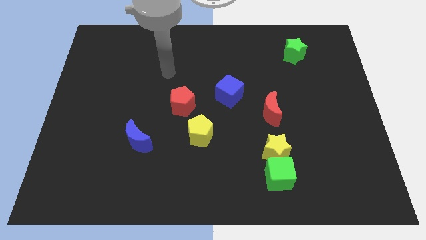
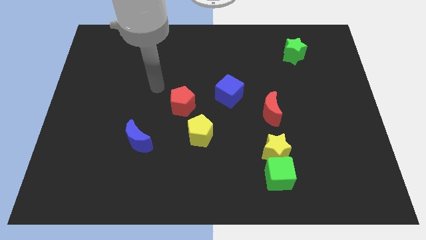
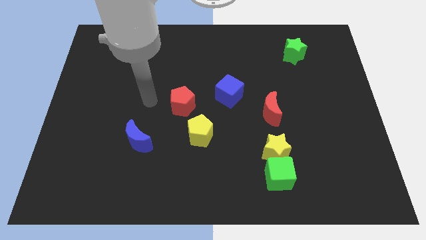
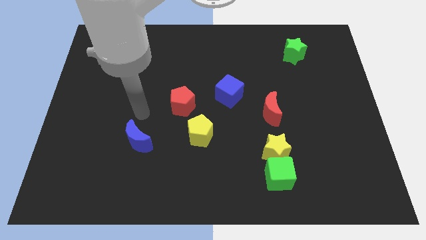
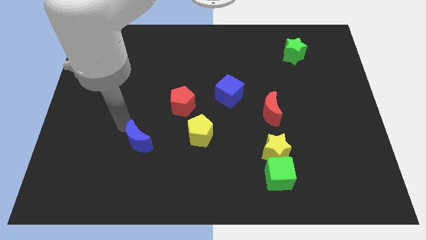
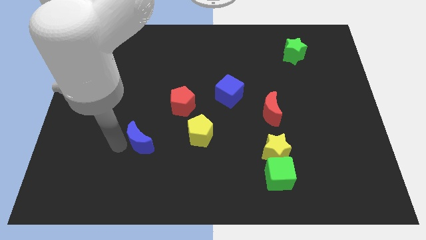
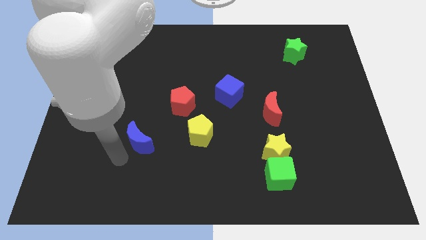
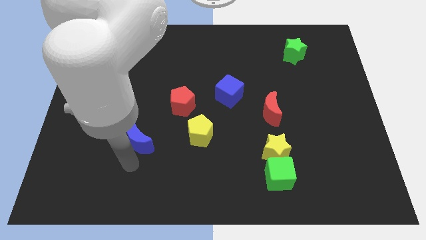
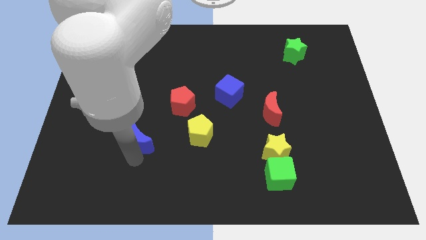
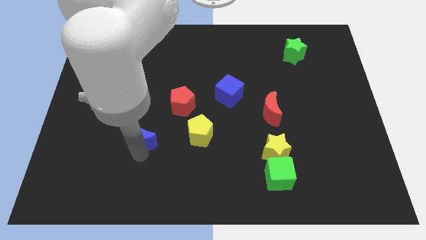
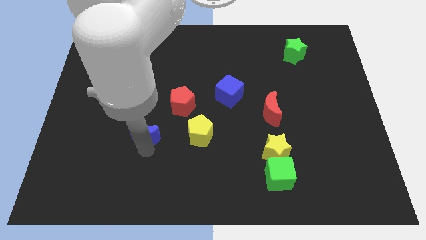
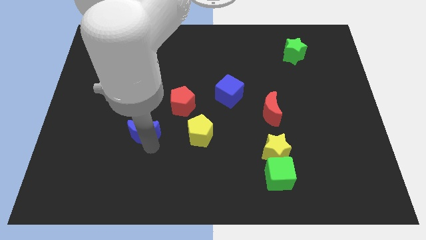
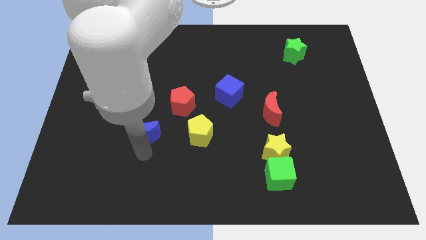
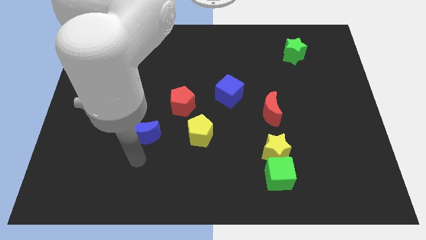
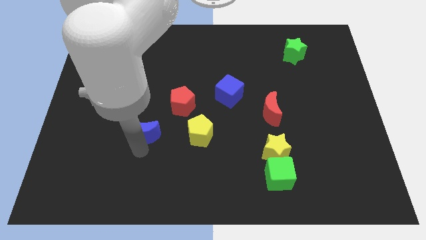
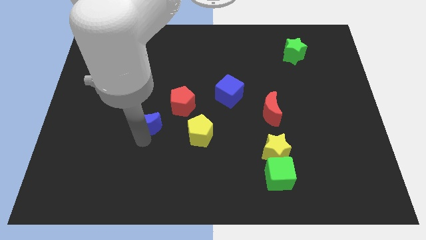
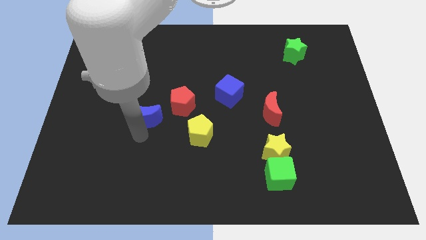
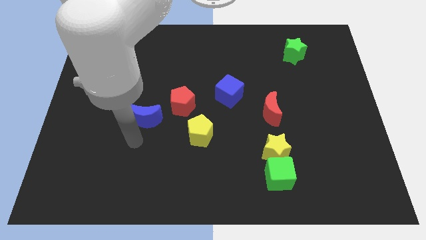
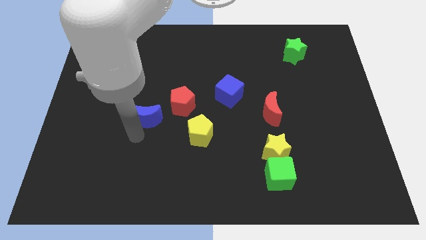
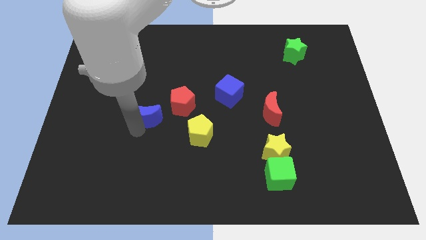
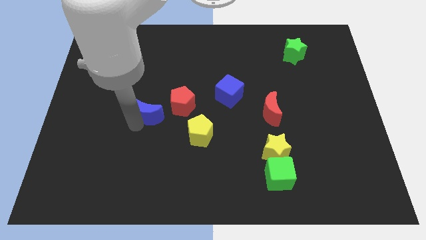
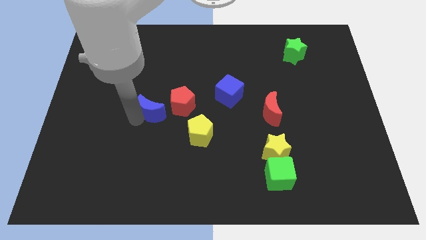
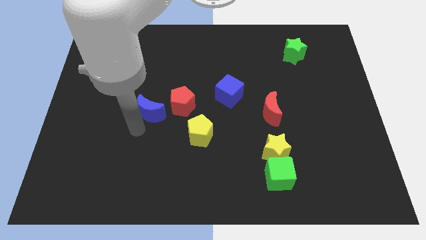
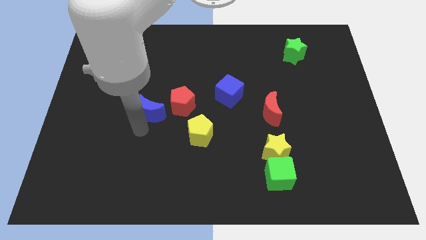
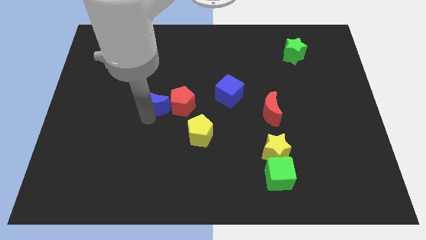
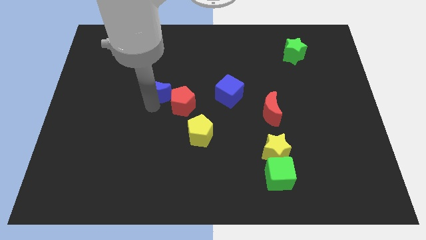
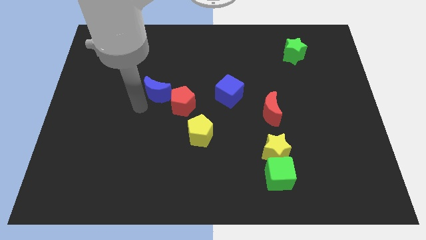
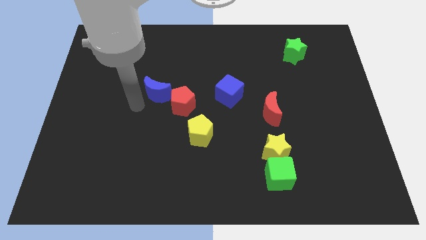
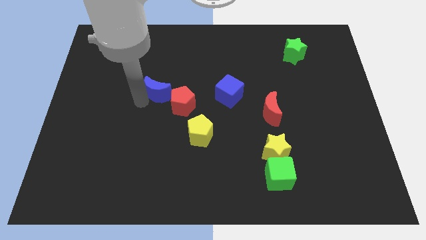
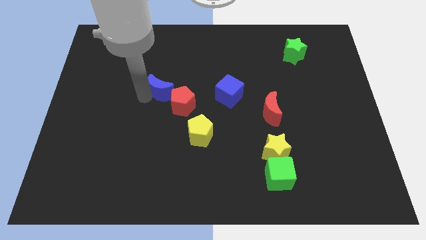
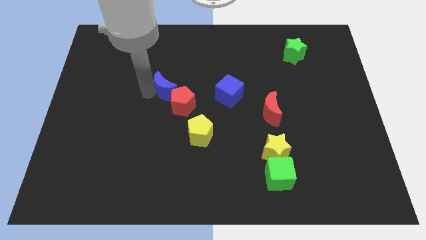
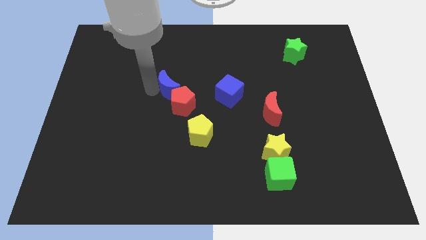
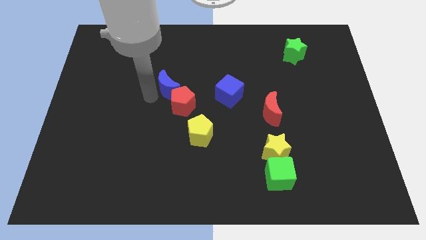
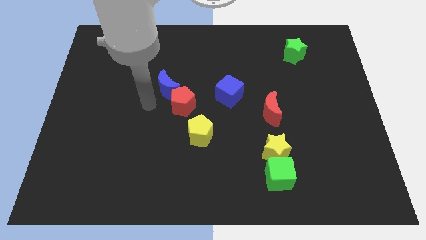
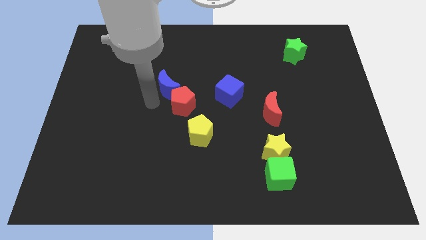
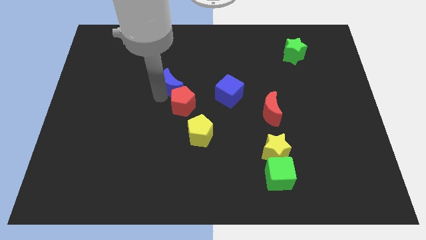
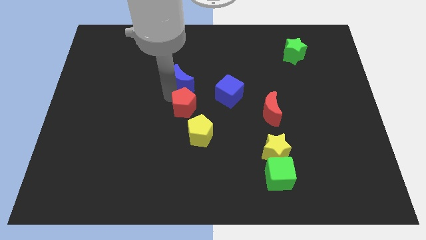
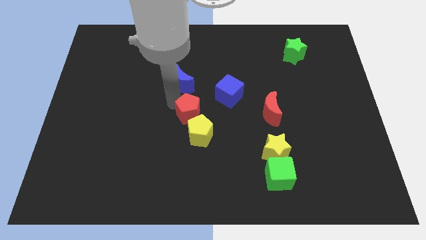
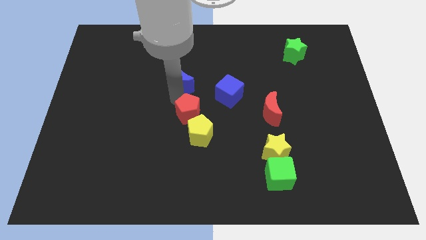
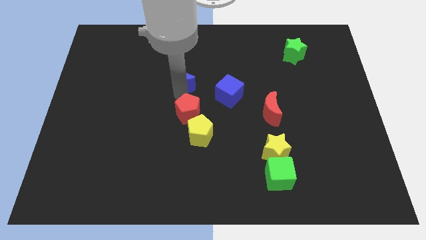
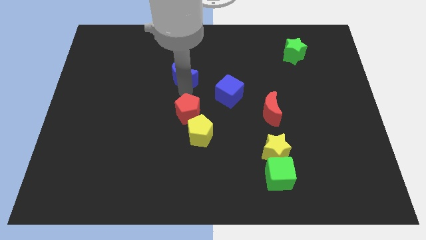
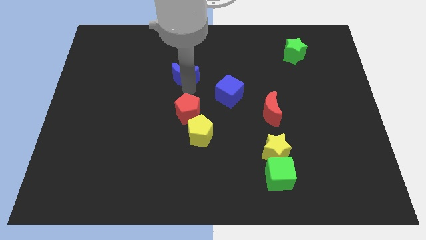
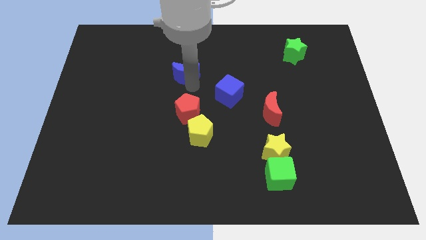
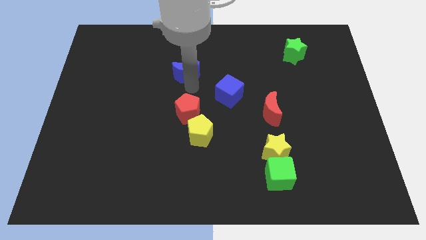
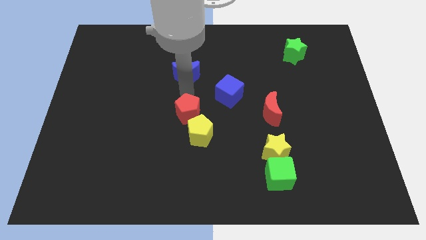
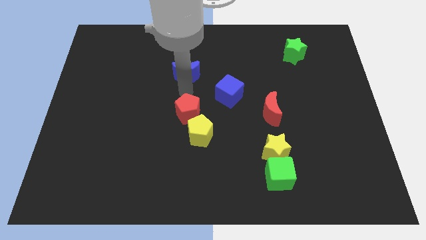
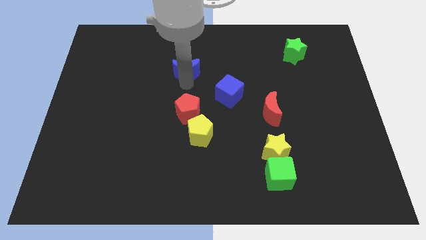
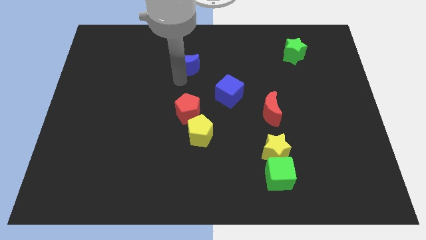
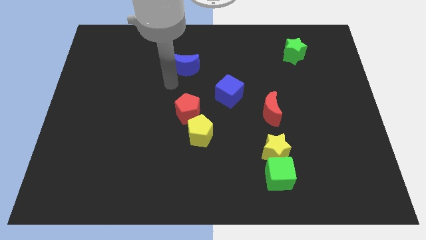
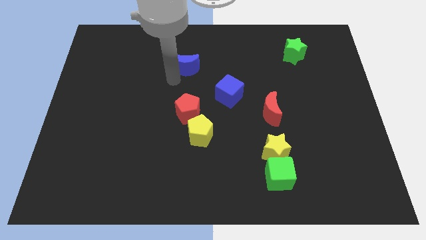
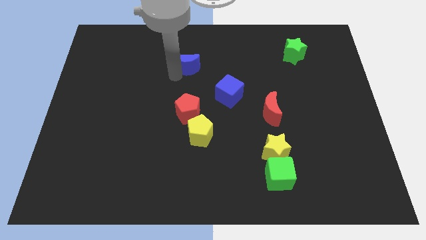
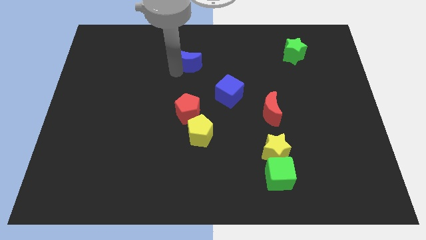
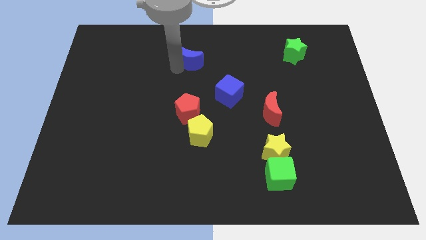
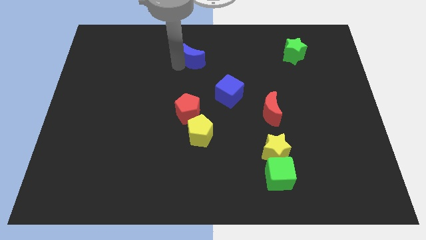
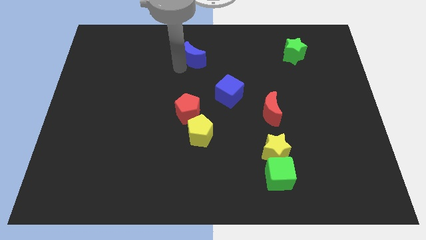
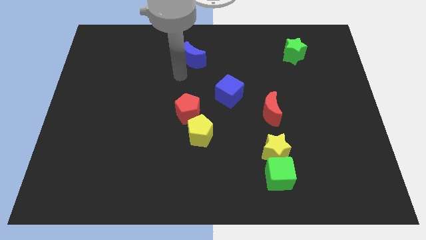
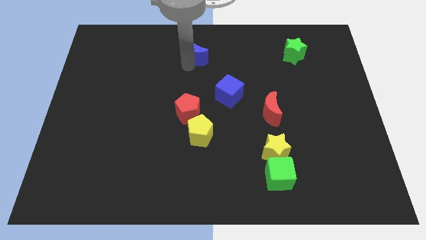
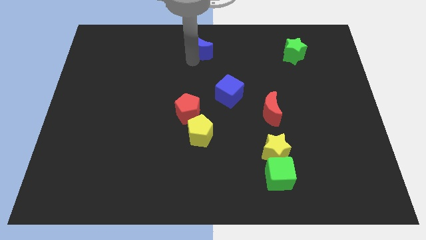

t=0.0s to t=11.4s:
put the blue moon to the top side

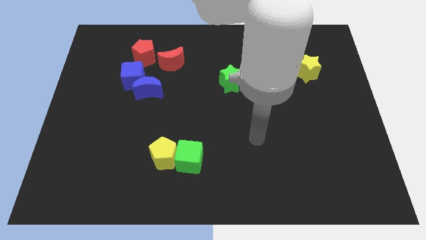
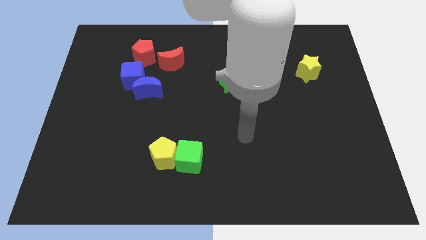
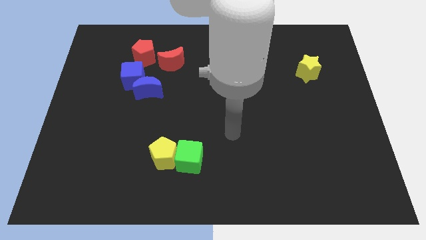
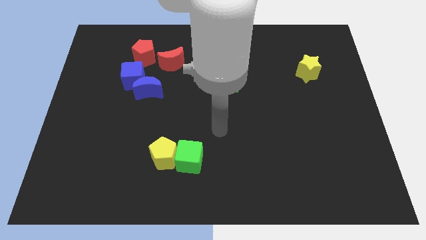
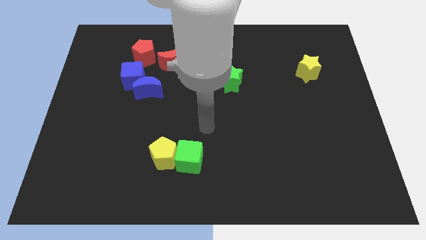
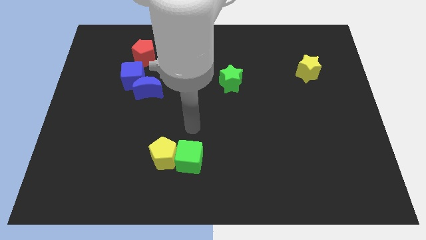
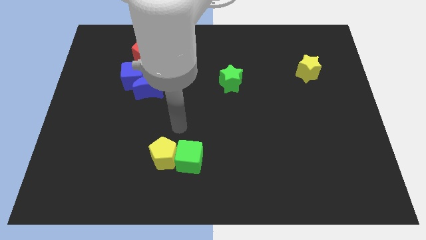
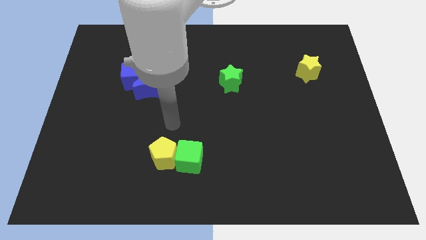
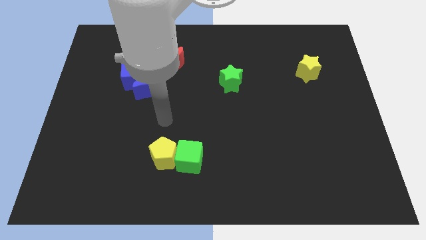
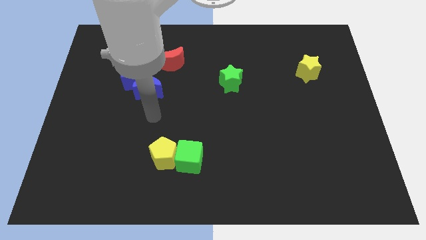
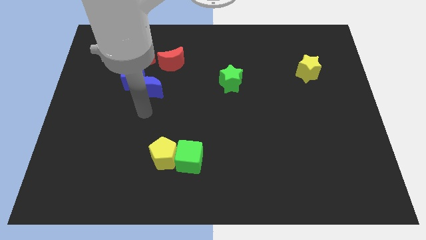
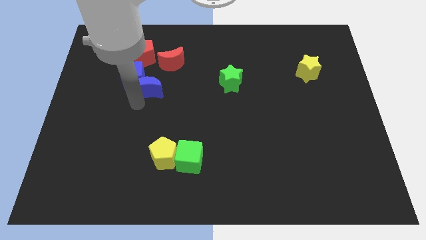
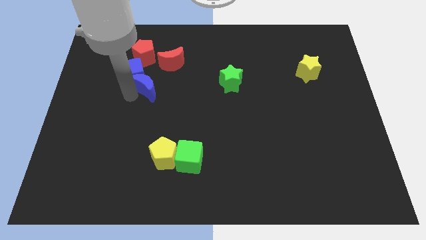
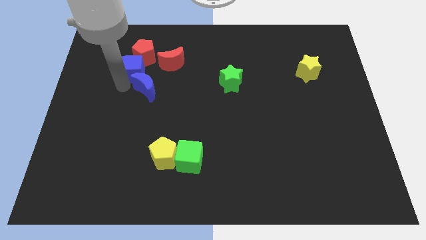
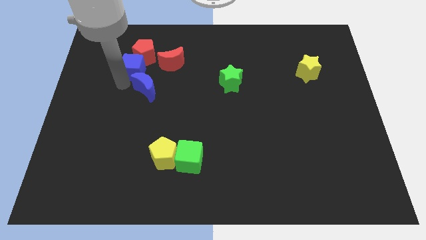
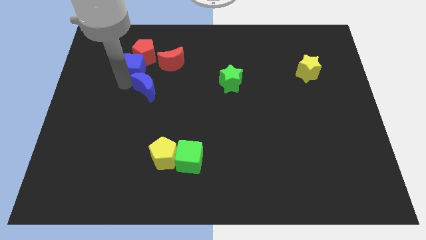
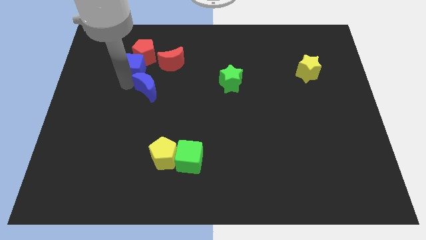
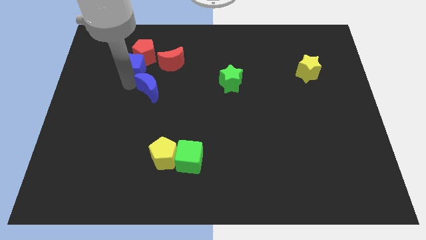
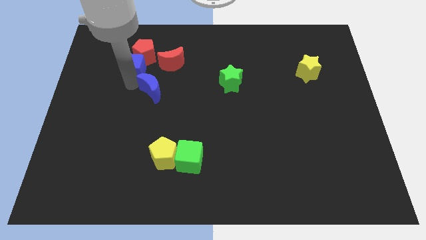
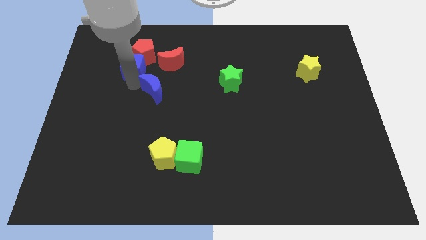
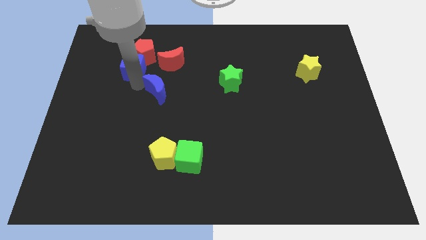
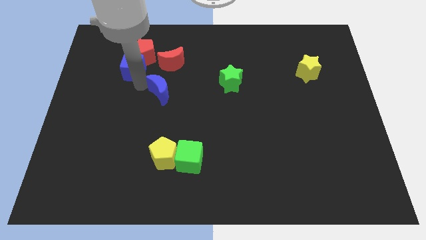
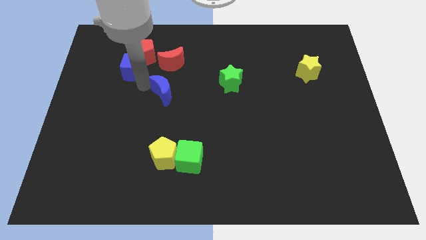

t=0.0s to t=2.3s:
put the blue moon to the center
